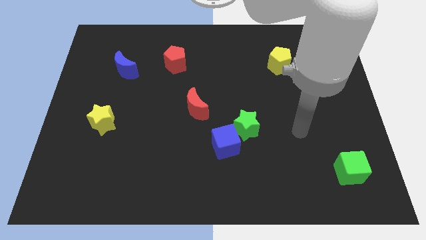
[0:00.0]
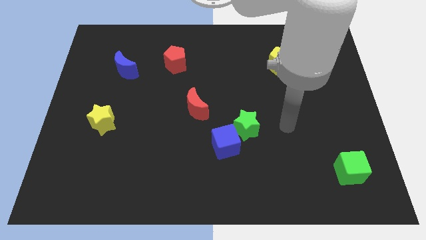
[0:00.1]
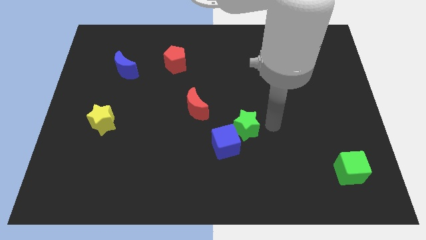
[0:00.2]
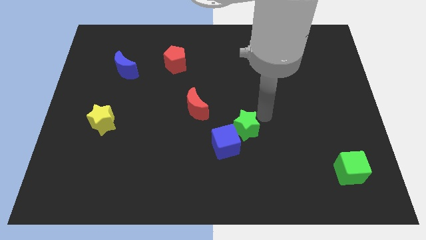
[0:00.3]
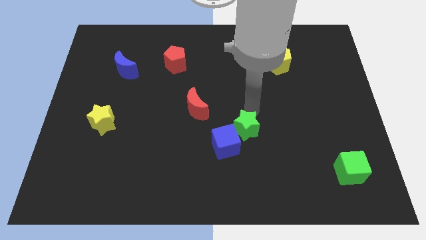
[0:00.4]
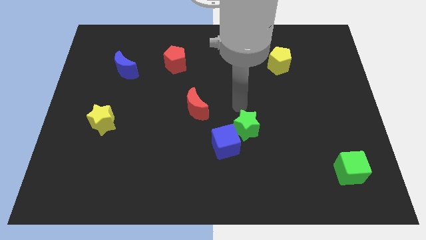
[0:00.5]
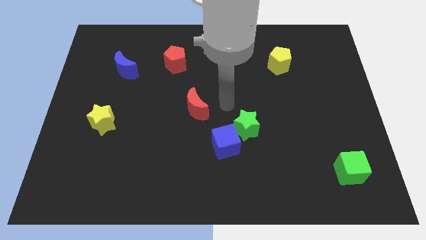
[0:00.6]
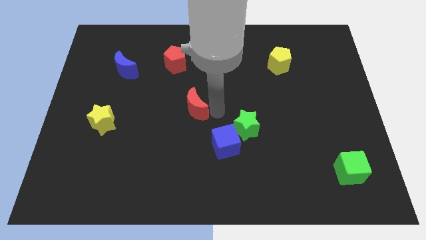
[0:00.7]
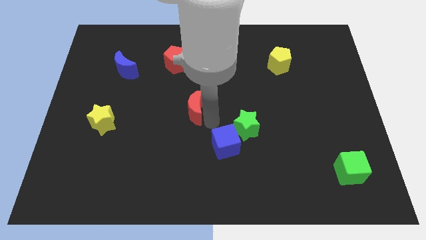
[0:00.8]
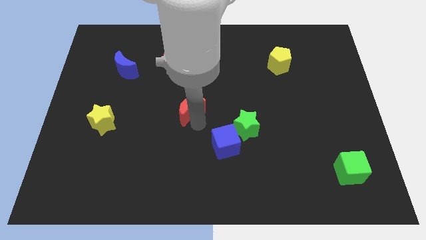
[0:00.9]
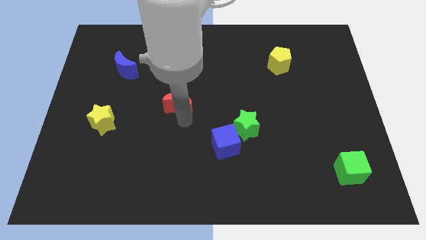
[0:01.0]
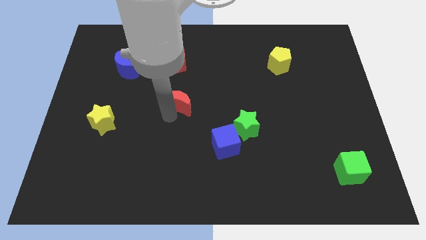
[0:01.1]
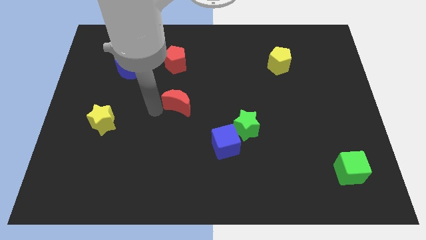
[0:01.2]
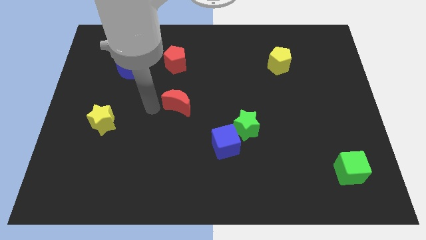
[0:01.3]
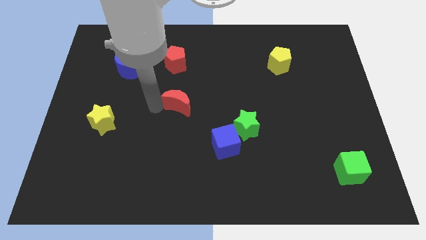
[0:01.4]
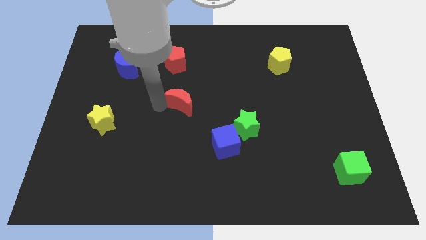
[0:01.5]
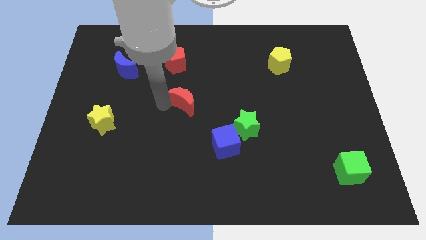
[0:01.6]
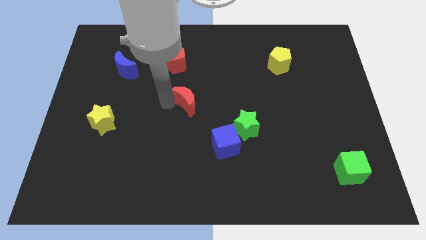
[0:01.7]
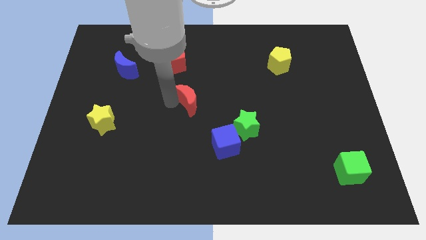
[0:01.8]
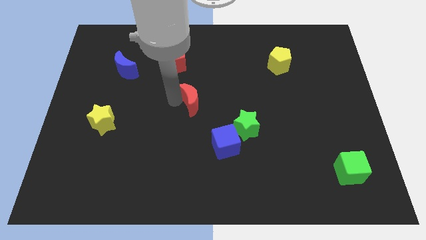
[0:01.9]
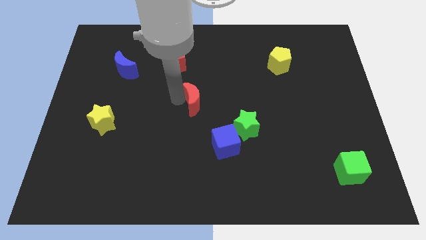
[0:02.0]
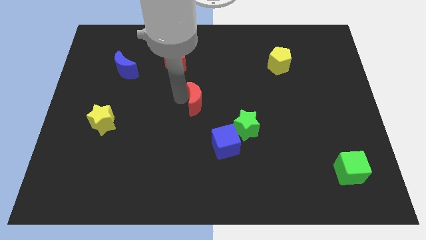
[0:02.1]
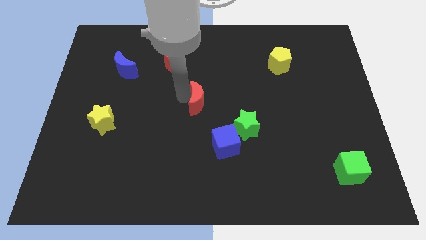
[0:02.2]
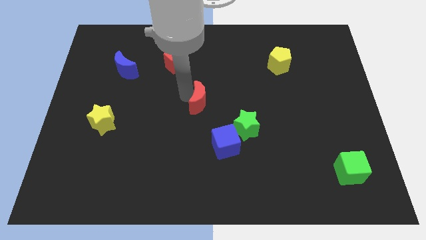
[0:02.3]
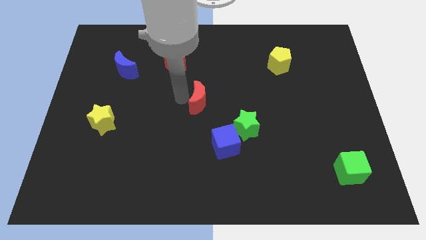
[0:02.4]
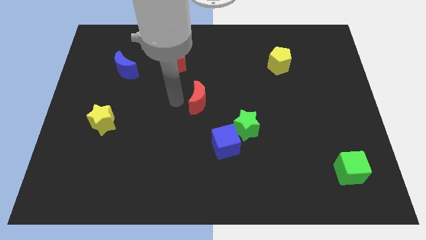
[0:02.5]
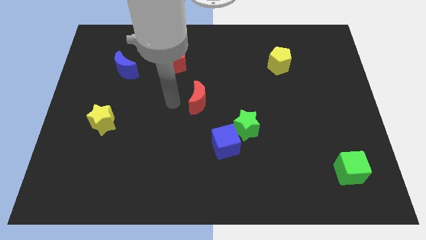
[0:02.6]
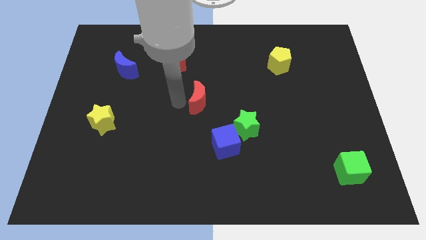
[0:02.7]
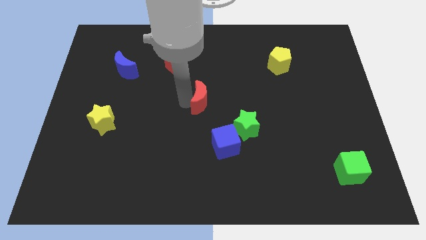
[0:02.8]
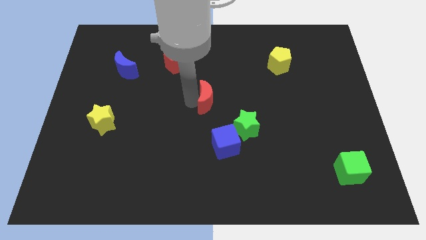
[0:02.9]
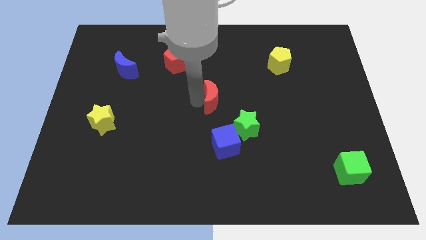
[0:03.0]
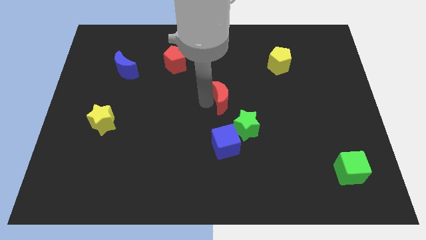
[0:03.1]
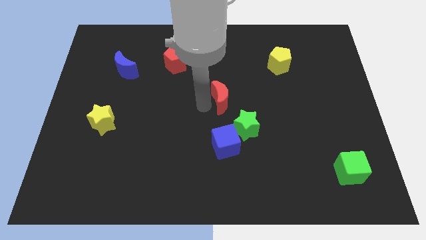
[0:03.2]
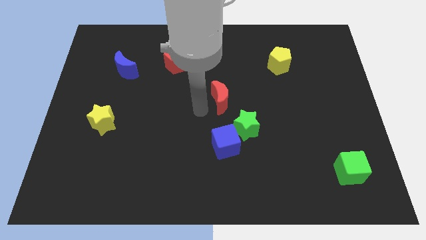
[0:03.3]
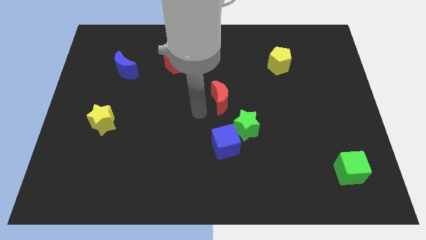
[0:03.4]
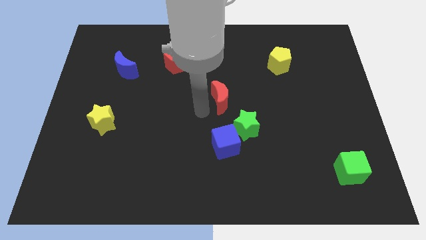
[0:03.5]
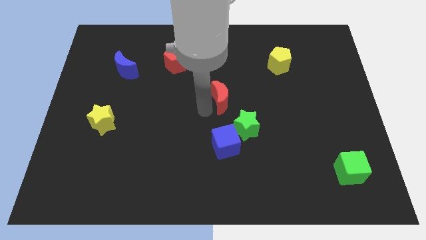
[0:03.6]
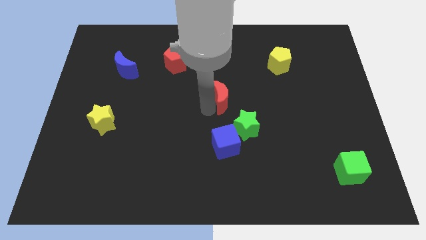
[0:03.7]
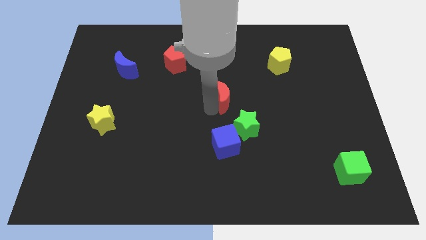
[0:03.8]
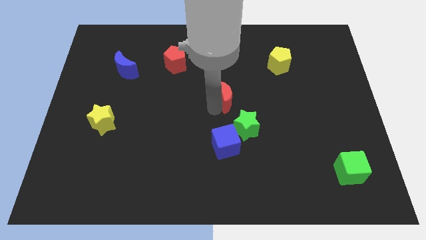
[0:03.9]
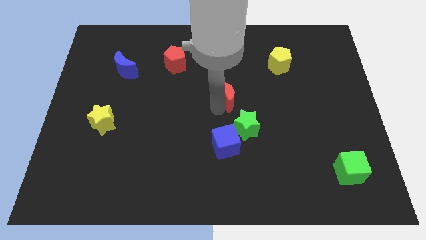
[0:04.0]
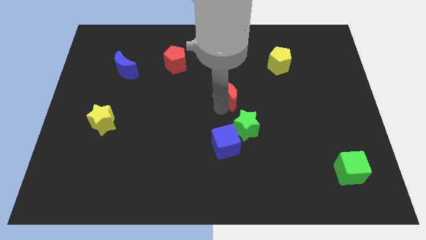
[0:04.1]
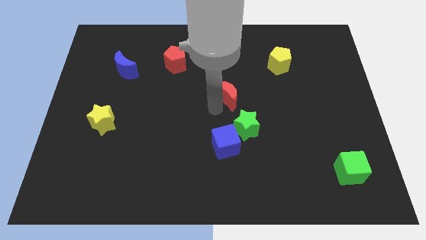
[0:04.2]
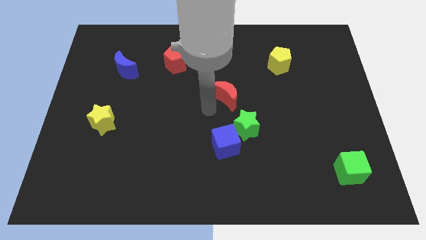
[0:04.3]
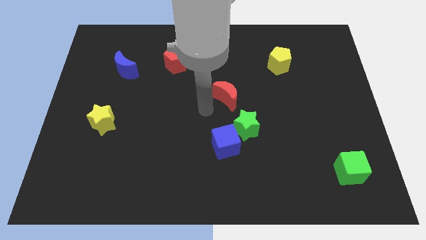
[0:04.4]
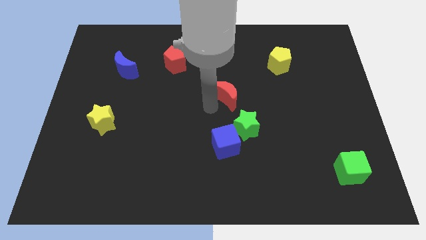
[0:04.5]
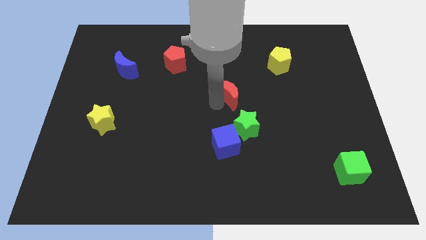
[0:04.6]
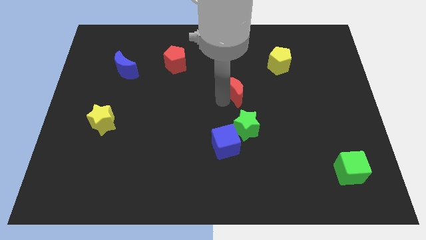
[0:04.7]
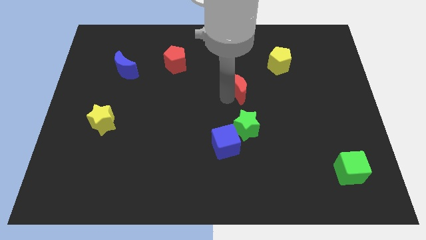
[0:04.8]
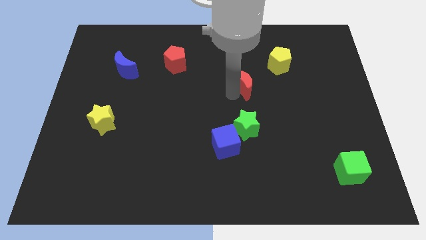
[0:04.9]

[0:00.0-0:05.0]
move the red moon diagonally down and to the left of the yellow pentagon

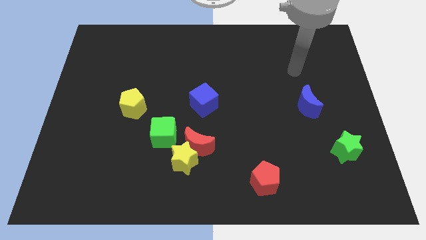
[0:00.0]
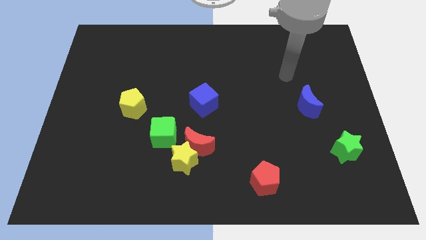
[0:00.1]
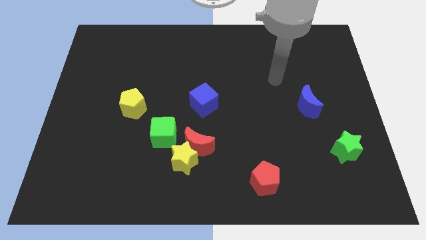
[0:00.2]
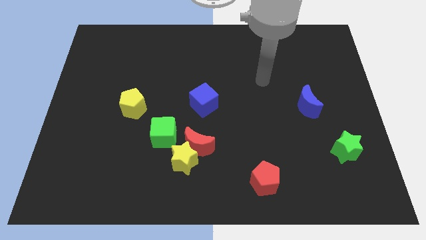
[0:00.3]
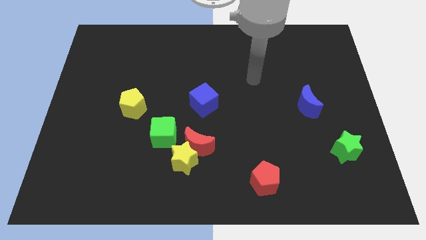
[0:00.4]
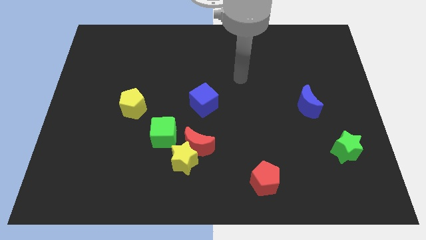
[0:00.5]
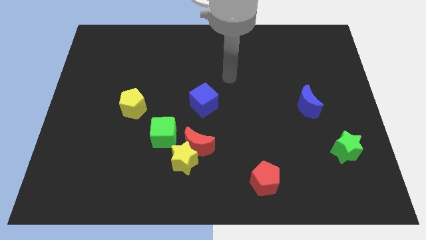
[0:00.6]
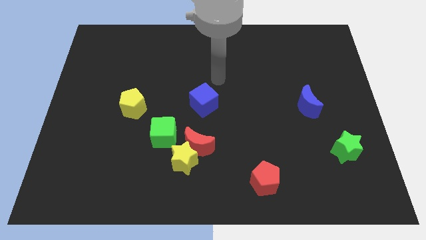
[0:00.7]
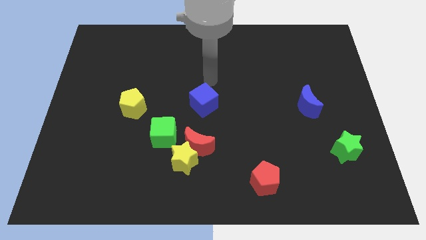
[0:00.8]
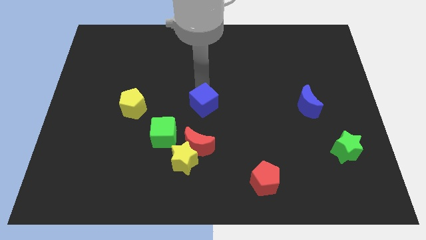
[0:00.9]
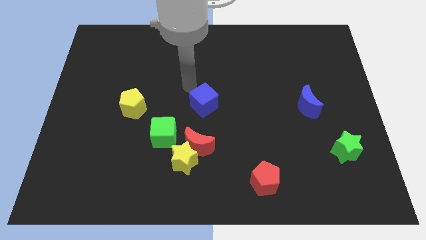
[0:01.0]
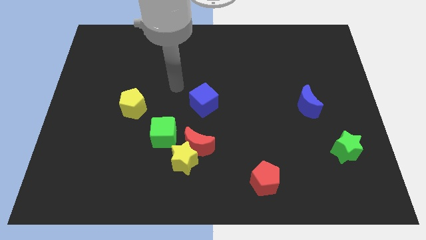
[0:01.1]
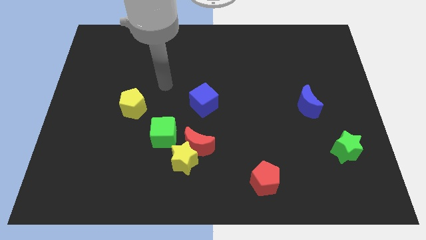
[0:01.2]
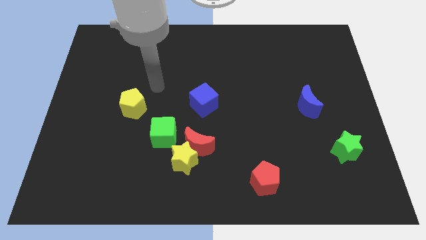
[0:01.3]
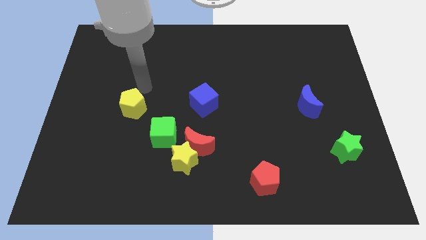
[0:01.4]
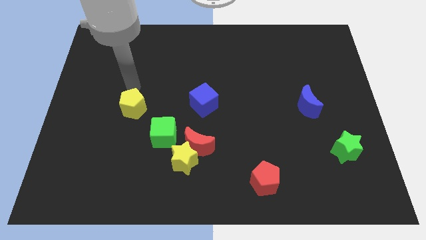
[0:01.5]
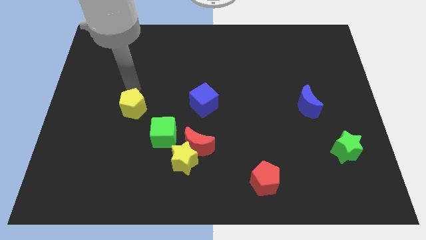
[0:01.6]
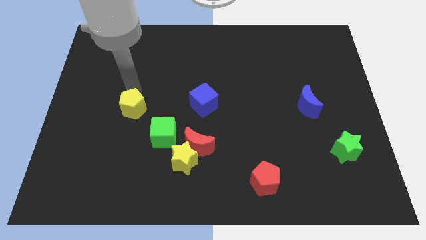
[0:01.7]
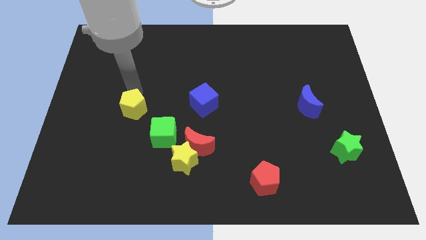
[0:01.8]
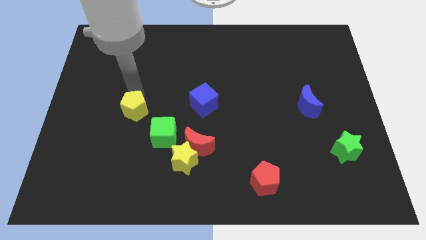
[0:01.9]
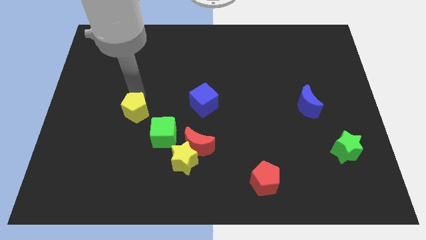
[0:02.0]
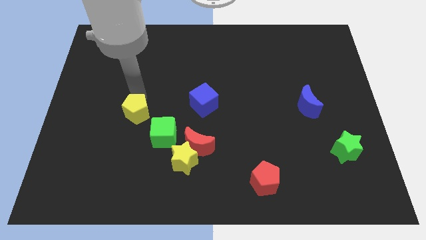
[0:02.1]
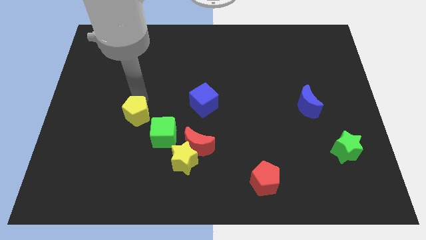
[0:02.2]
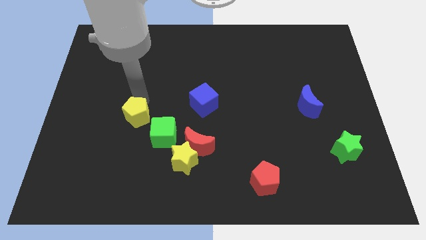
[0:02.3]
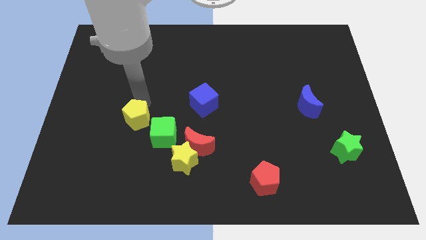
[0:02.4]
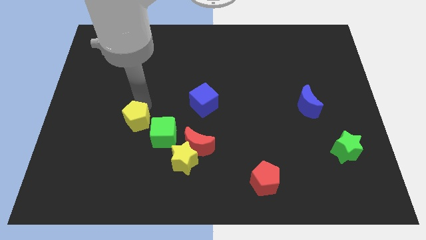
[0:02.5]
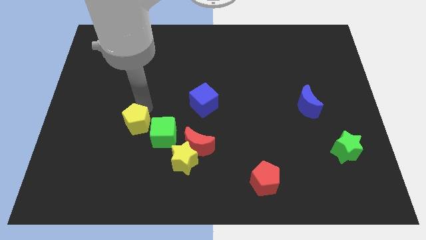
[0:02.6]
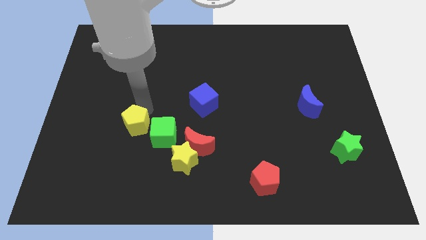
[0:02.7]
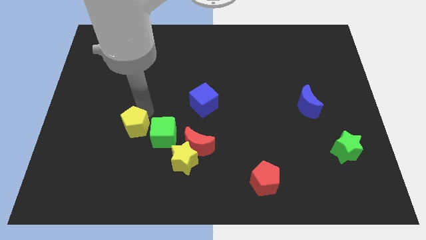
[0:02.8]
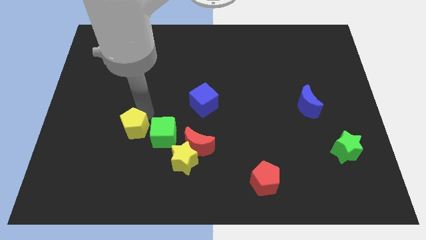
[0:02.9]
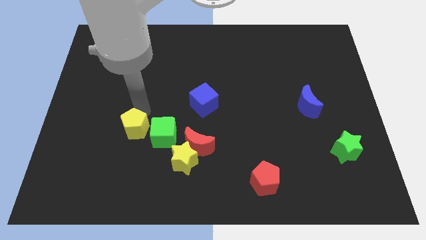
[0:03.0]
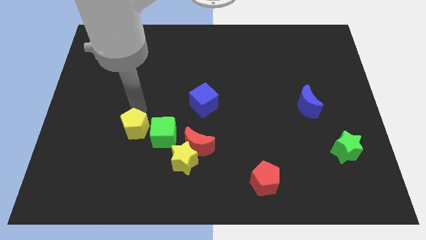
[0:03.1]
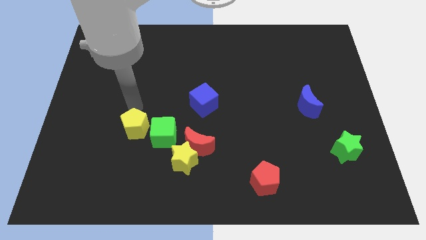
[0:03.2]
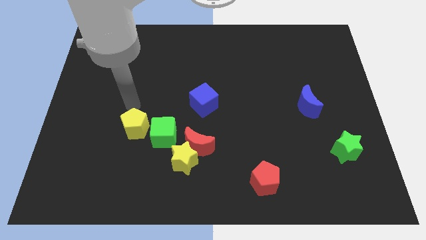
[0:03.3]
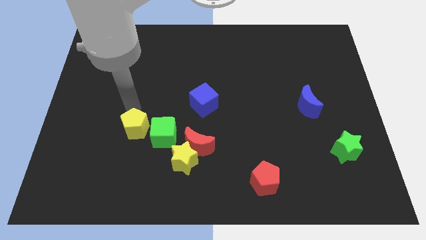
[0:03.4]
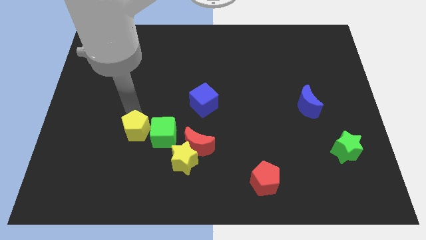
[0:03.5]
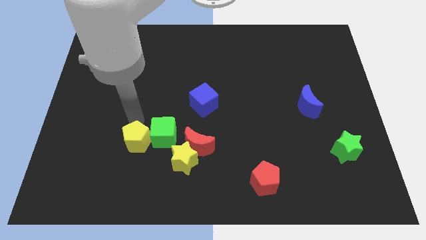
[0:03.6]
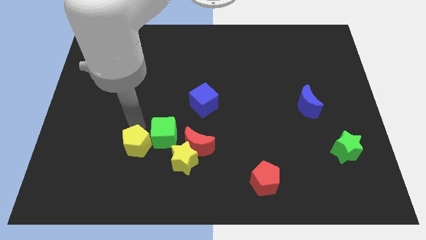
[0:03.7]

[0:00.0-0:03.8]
move the yellow pentagon just left of the yellow star
